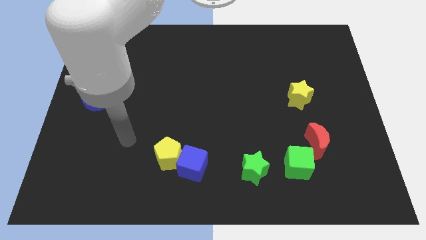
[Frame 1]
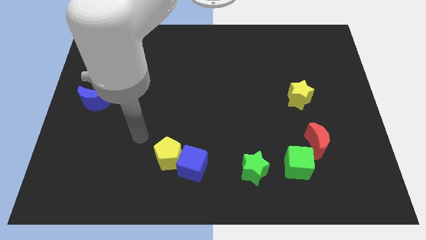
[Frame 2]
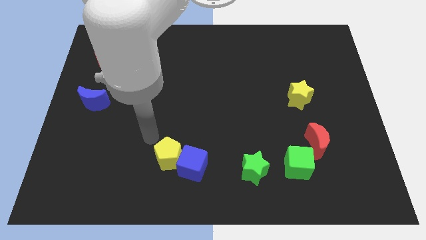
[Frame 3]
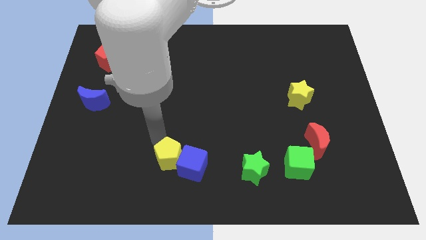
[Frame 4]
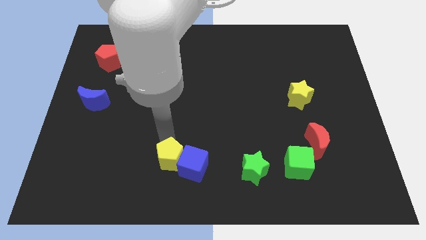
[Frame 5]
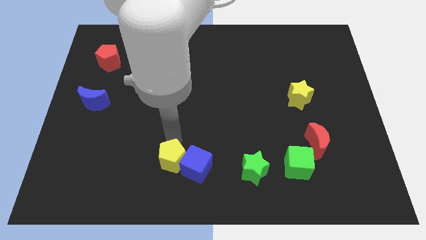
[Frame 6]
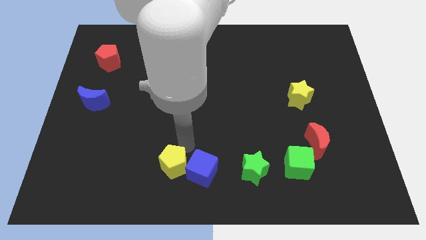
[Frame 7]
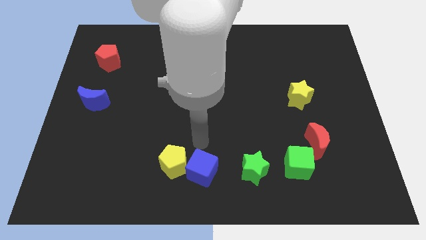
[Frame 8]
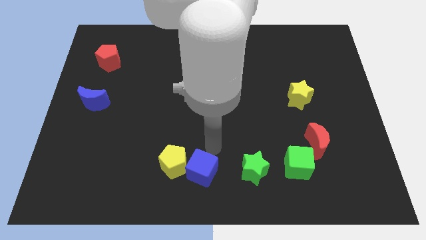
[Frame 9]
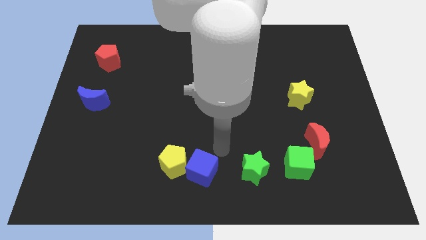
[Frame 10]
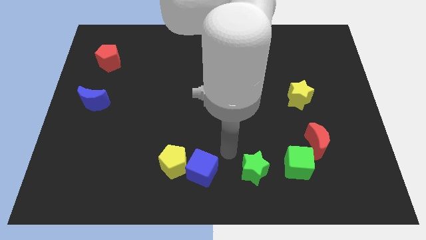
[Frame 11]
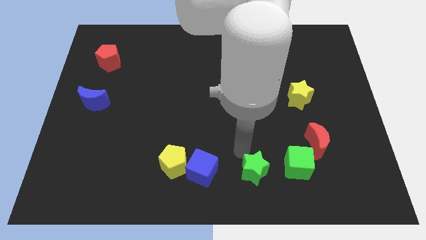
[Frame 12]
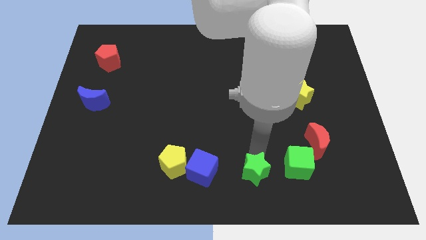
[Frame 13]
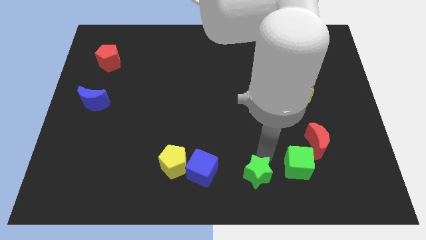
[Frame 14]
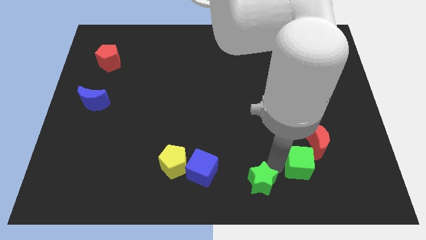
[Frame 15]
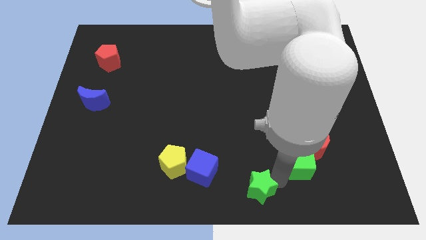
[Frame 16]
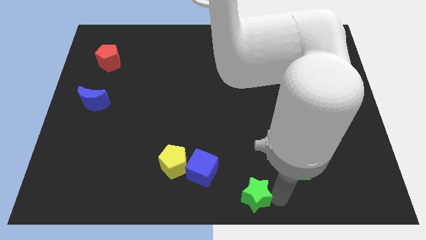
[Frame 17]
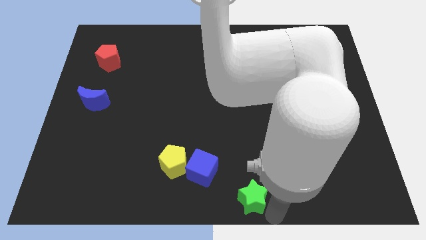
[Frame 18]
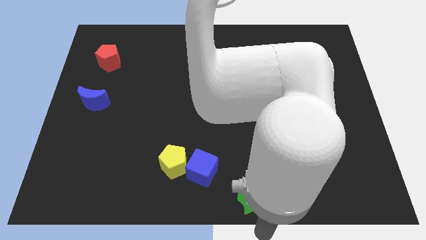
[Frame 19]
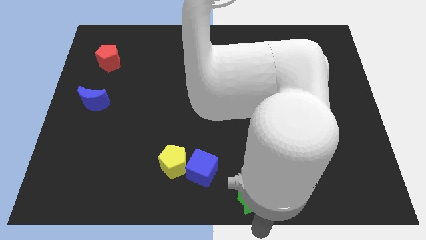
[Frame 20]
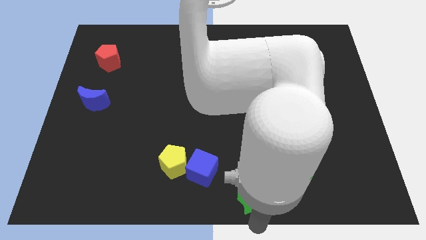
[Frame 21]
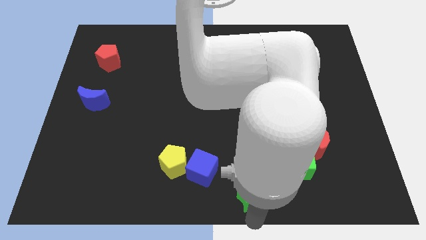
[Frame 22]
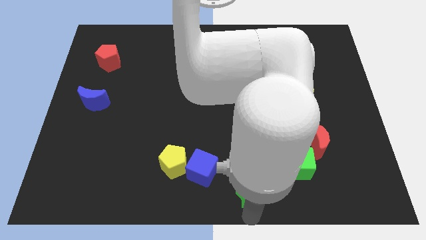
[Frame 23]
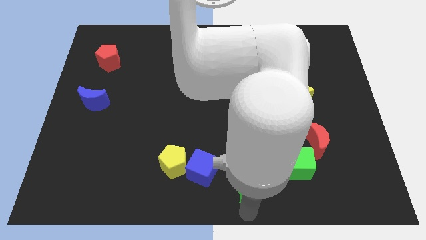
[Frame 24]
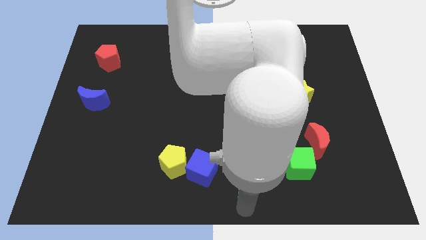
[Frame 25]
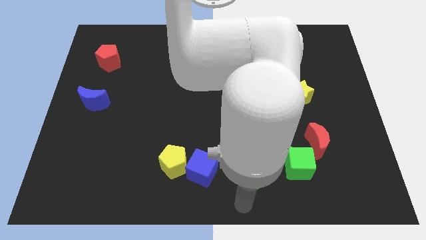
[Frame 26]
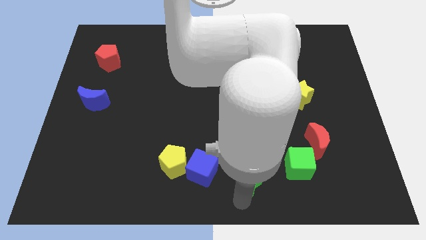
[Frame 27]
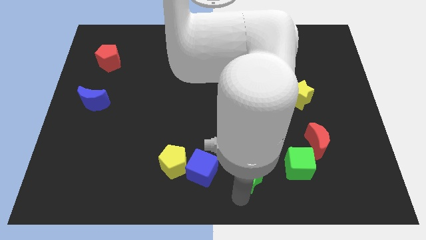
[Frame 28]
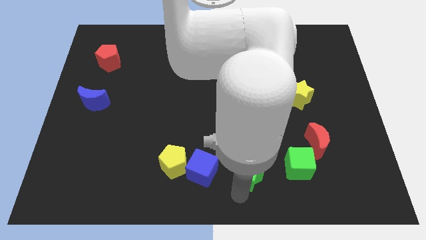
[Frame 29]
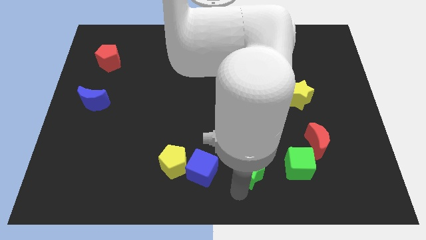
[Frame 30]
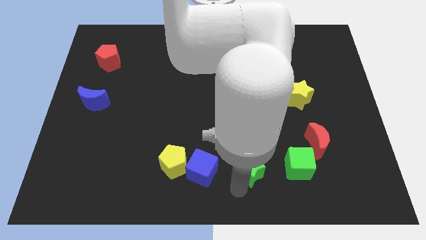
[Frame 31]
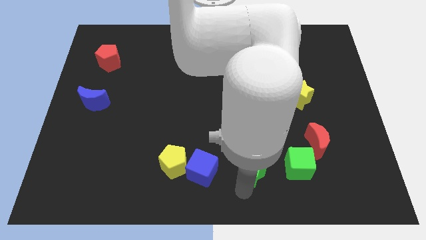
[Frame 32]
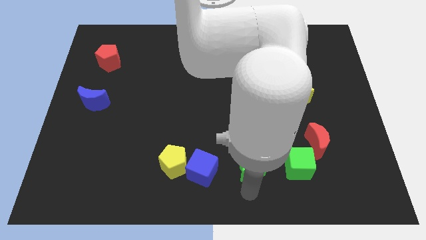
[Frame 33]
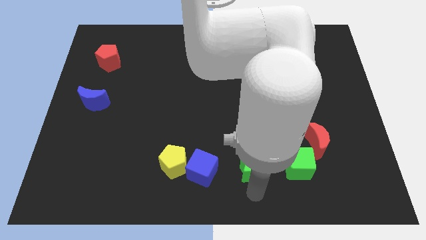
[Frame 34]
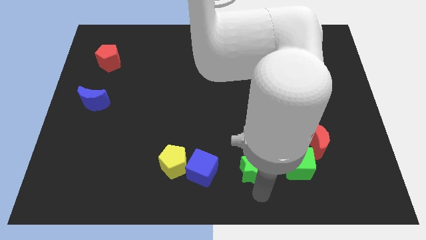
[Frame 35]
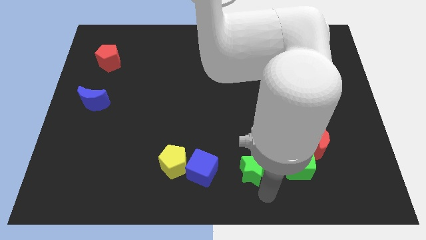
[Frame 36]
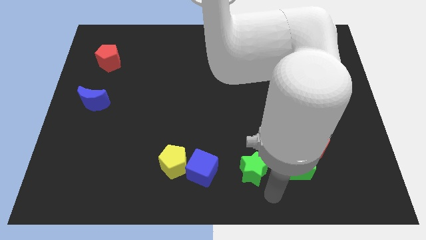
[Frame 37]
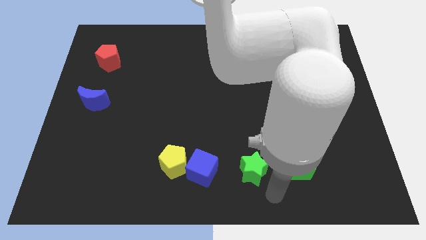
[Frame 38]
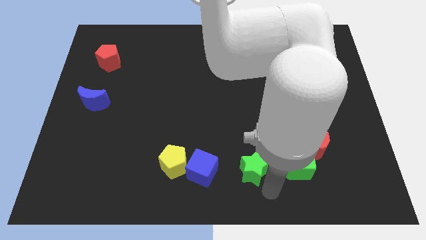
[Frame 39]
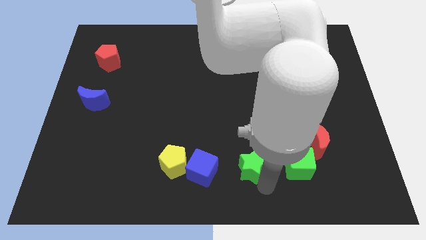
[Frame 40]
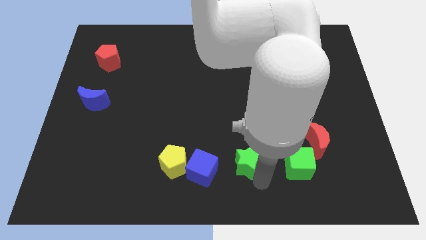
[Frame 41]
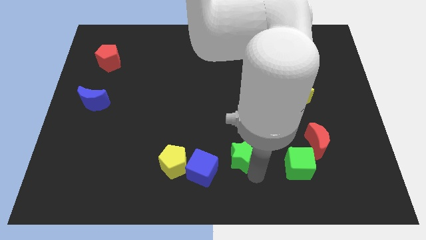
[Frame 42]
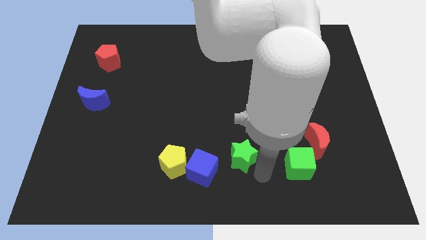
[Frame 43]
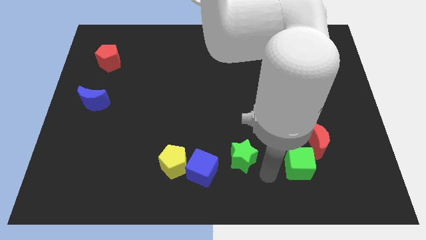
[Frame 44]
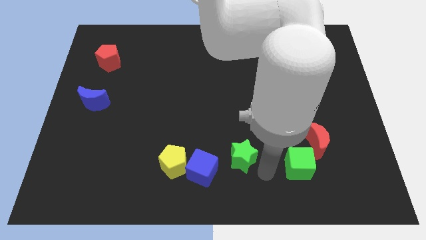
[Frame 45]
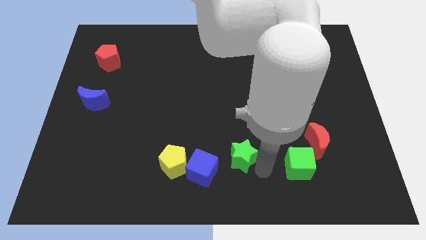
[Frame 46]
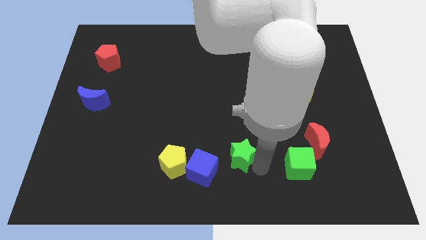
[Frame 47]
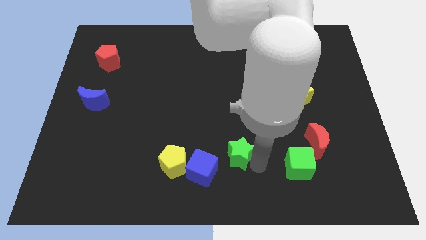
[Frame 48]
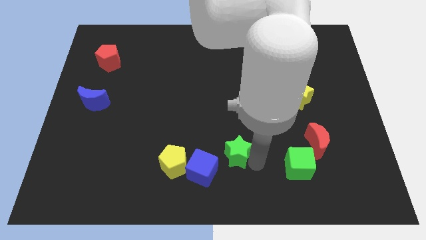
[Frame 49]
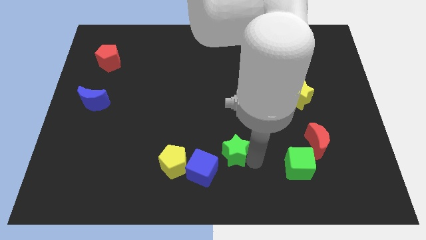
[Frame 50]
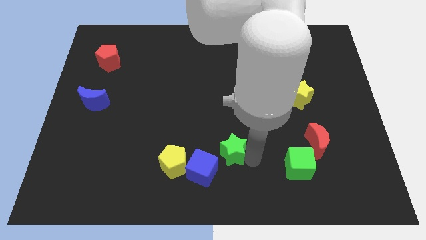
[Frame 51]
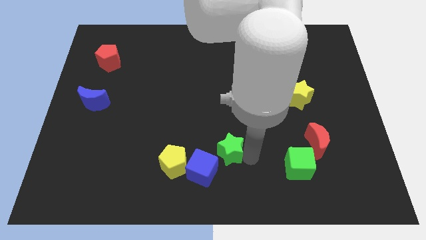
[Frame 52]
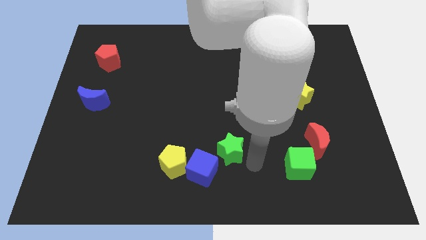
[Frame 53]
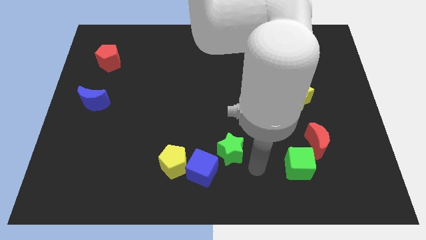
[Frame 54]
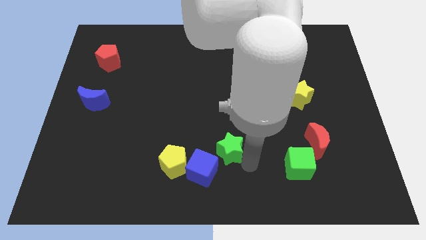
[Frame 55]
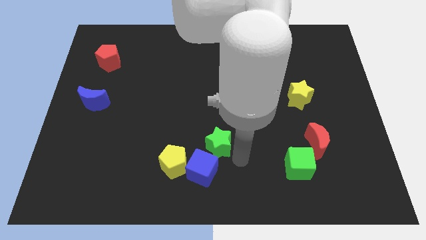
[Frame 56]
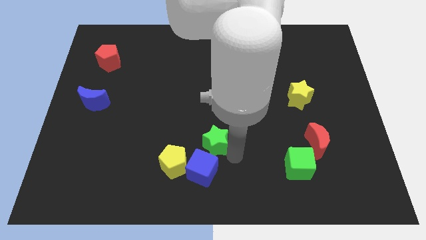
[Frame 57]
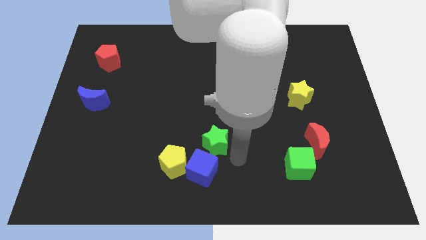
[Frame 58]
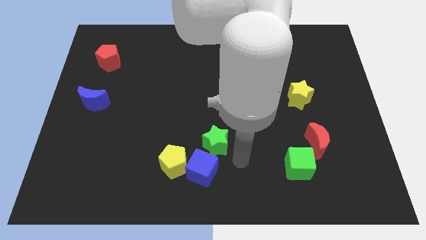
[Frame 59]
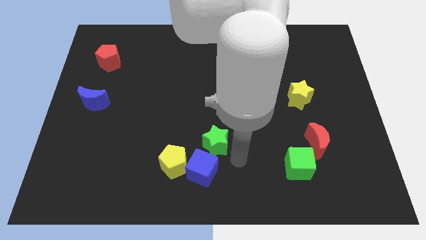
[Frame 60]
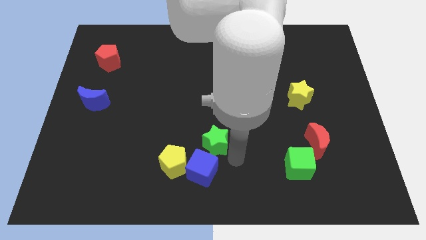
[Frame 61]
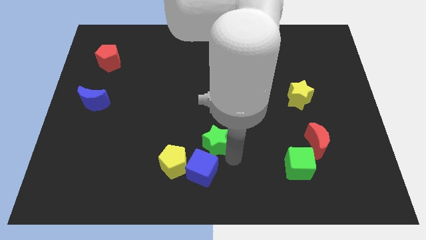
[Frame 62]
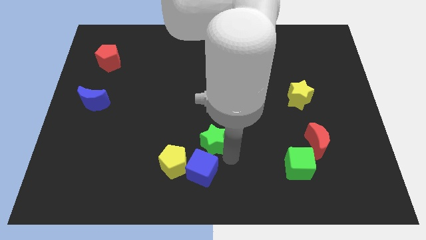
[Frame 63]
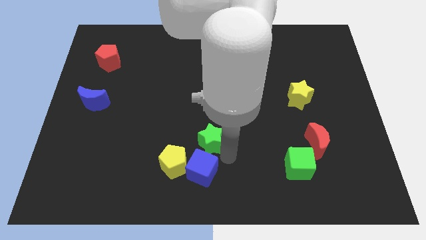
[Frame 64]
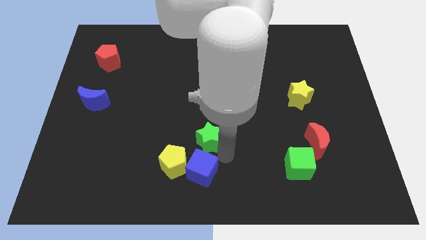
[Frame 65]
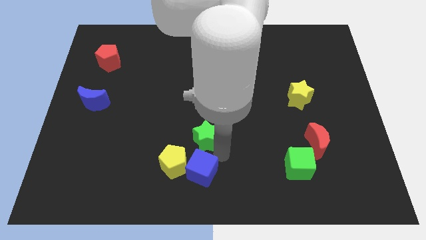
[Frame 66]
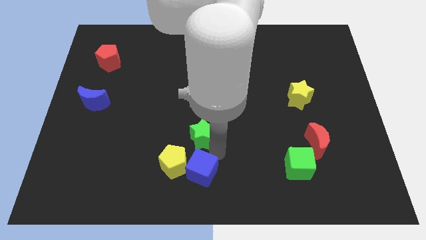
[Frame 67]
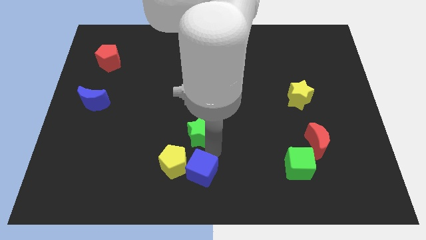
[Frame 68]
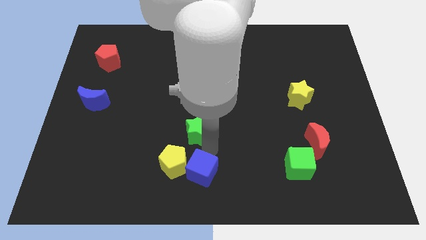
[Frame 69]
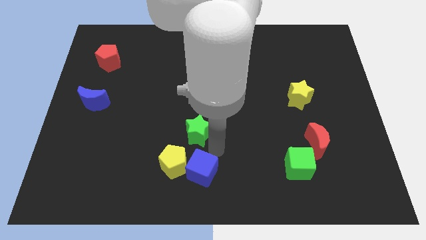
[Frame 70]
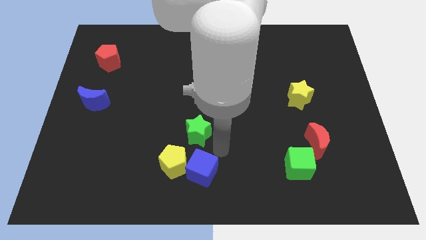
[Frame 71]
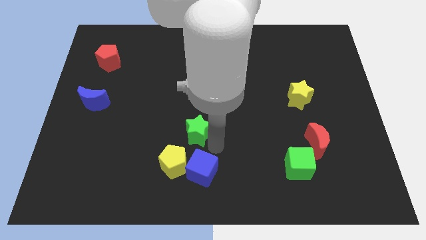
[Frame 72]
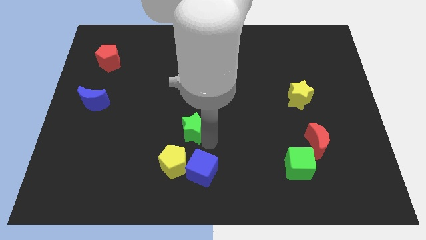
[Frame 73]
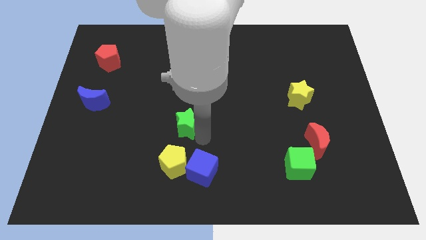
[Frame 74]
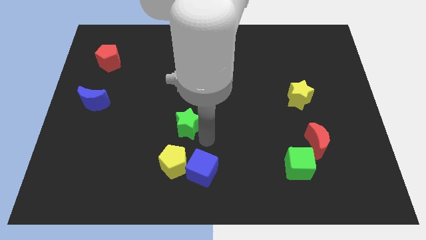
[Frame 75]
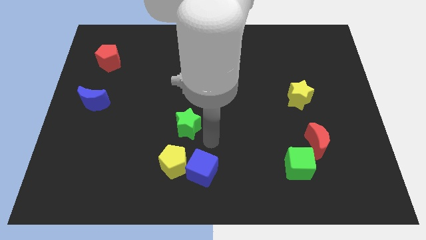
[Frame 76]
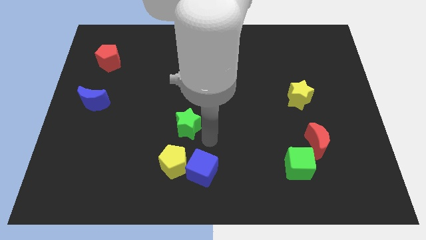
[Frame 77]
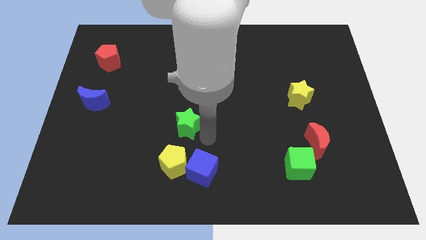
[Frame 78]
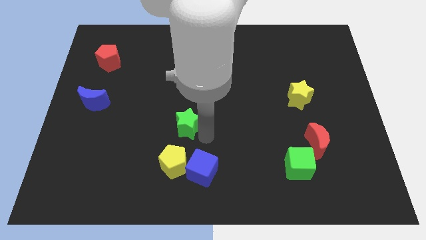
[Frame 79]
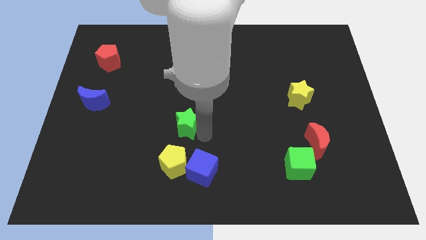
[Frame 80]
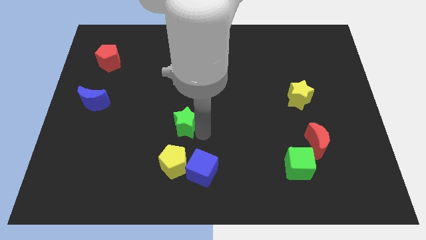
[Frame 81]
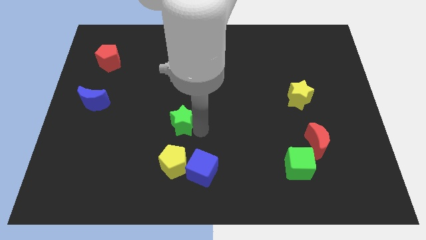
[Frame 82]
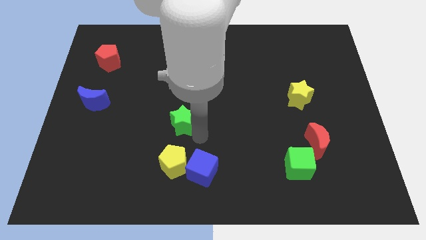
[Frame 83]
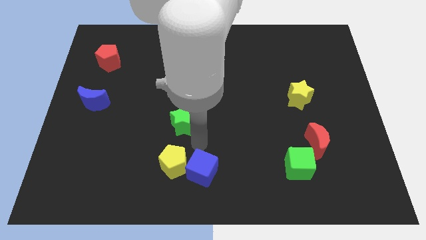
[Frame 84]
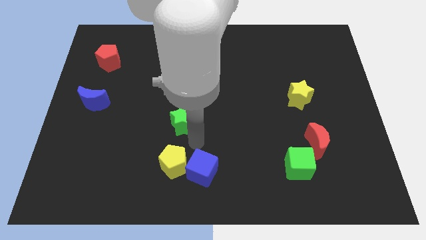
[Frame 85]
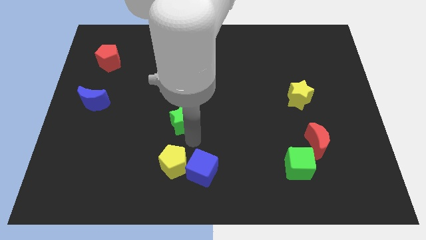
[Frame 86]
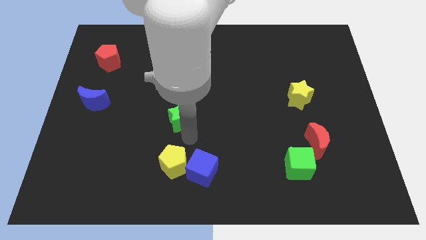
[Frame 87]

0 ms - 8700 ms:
push the green star up and then left
